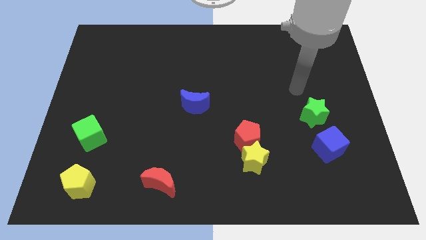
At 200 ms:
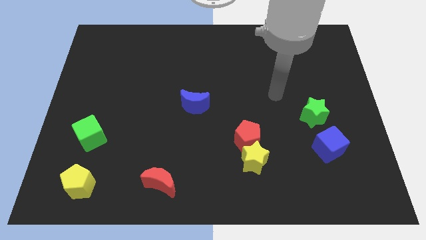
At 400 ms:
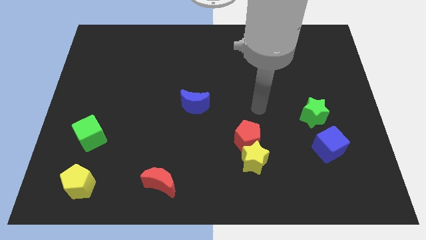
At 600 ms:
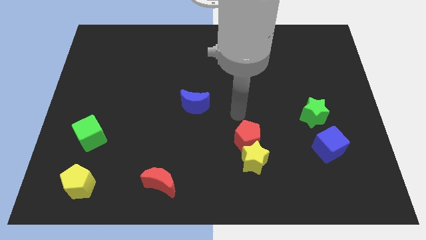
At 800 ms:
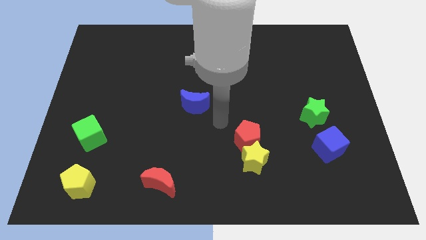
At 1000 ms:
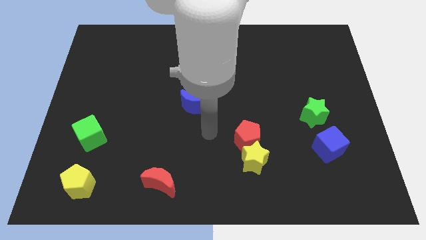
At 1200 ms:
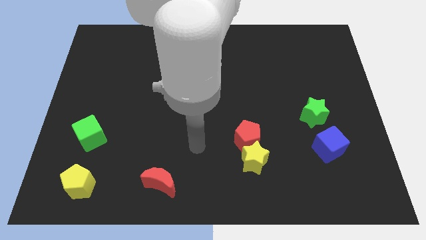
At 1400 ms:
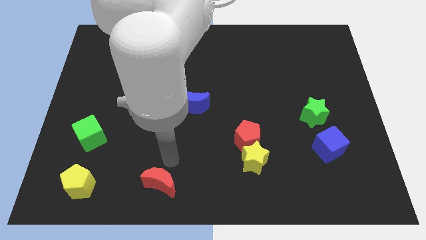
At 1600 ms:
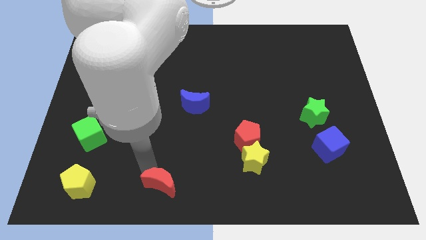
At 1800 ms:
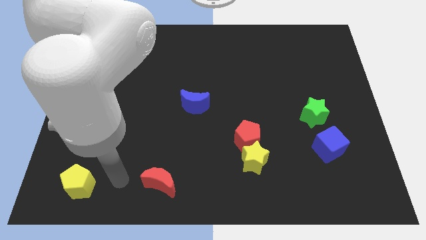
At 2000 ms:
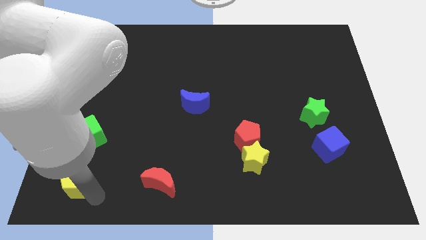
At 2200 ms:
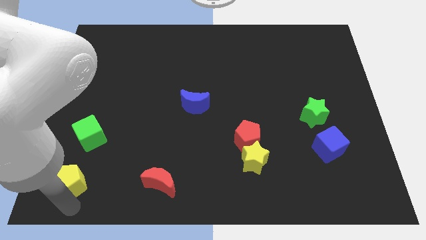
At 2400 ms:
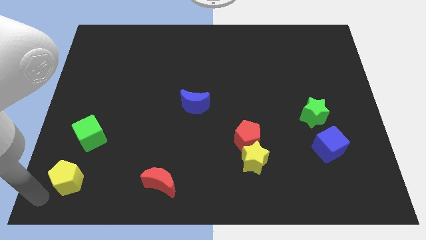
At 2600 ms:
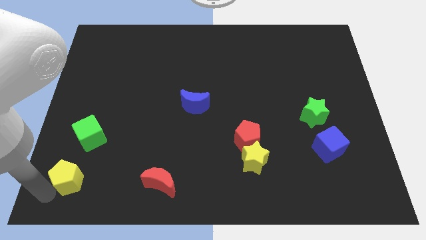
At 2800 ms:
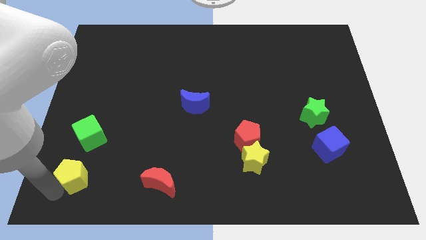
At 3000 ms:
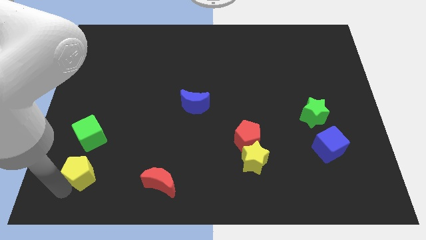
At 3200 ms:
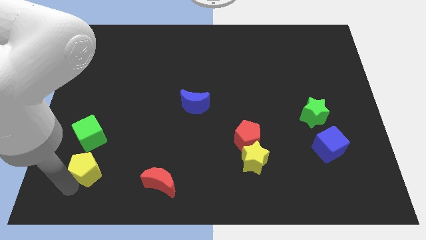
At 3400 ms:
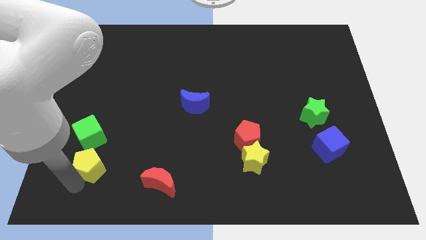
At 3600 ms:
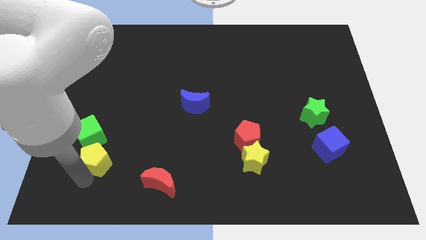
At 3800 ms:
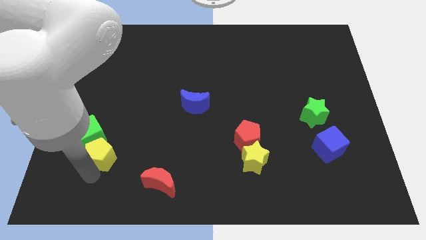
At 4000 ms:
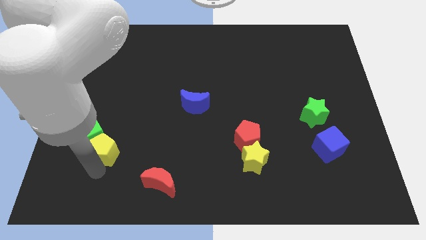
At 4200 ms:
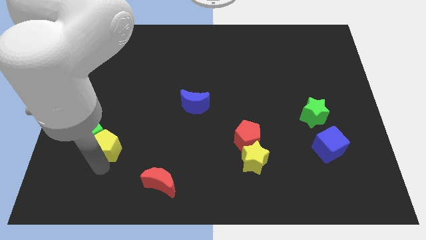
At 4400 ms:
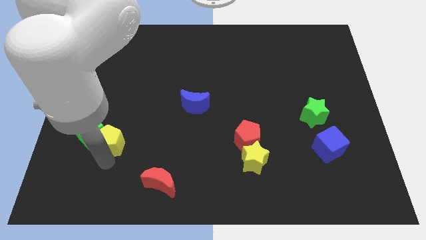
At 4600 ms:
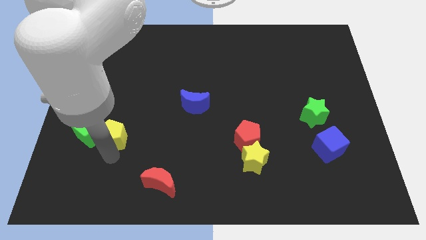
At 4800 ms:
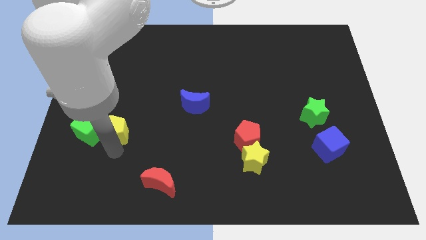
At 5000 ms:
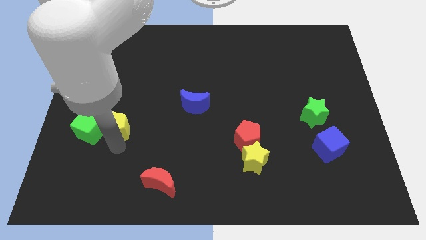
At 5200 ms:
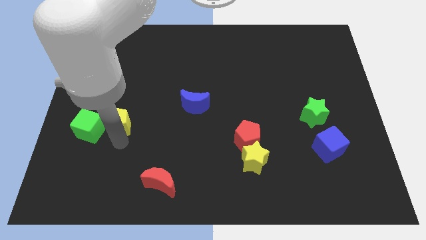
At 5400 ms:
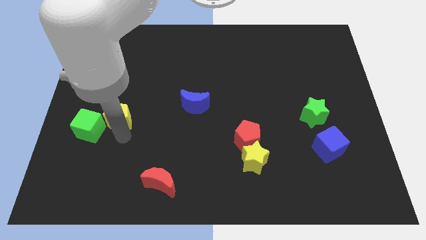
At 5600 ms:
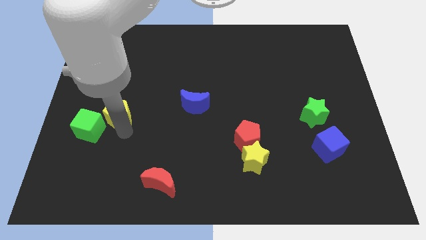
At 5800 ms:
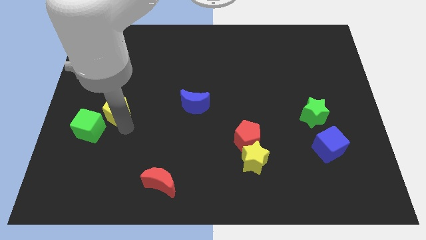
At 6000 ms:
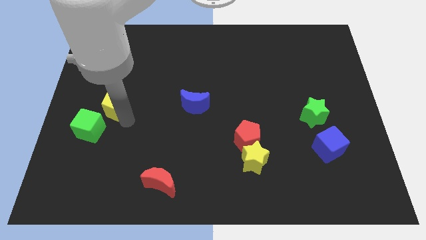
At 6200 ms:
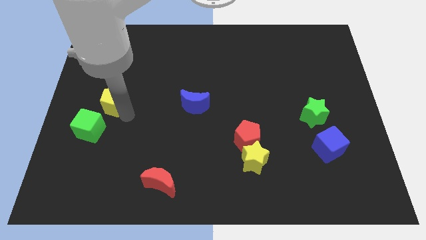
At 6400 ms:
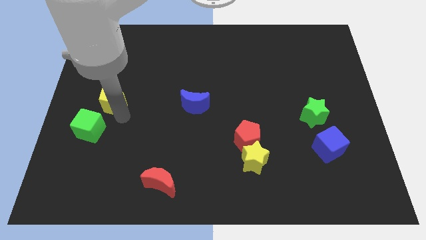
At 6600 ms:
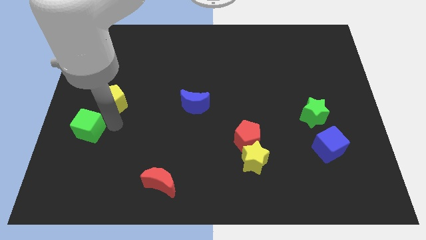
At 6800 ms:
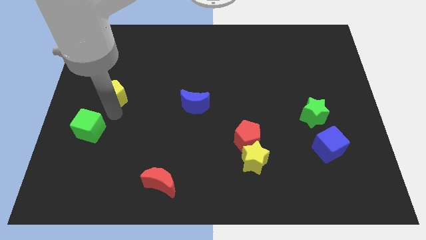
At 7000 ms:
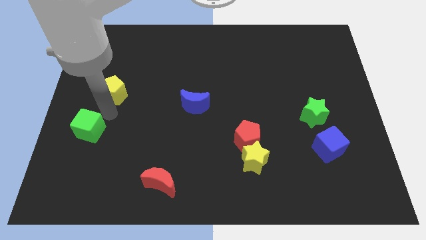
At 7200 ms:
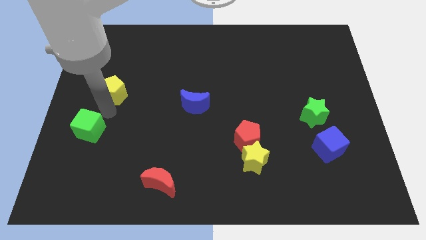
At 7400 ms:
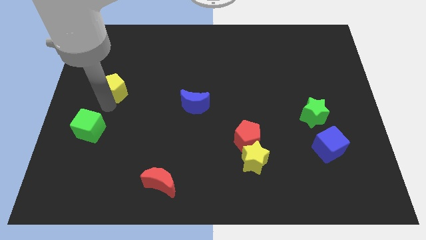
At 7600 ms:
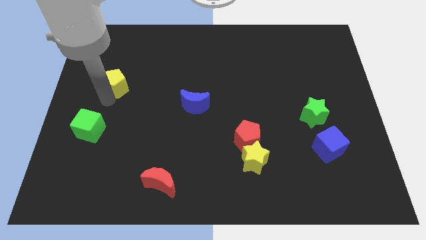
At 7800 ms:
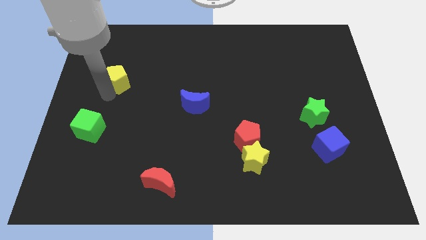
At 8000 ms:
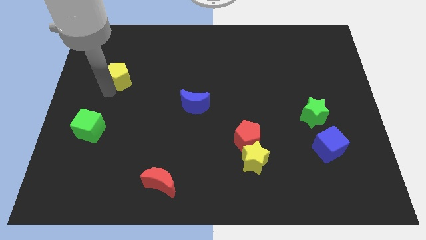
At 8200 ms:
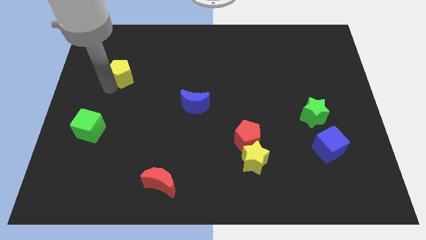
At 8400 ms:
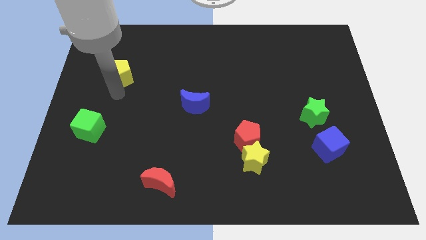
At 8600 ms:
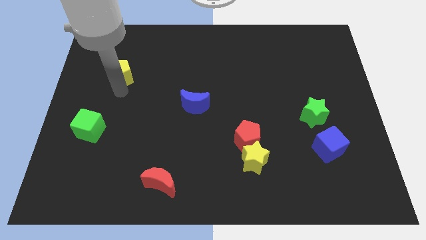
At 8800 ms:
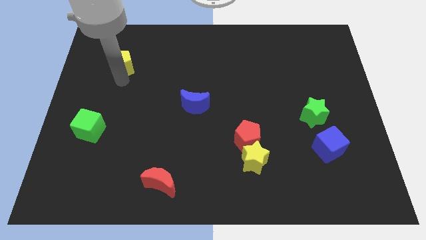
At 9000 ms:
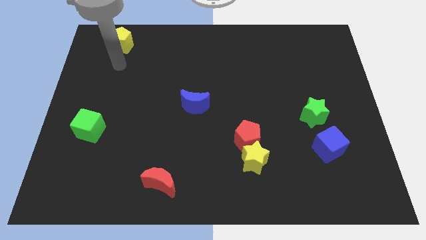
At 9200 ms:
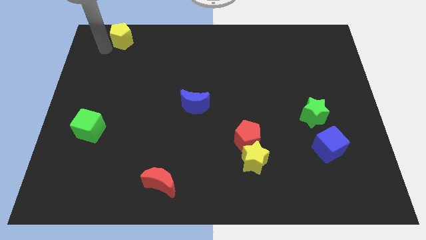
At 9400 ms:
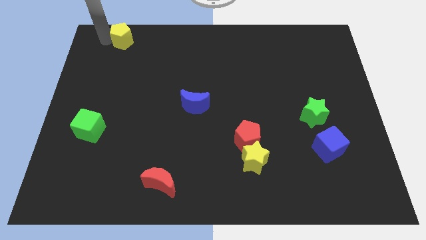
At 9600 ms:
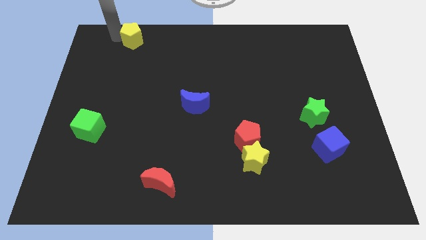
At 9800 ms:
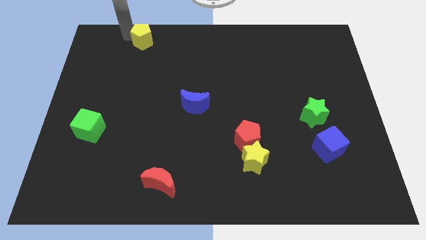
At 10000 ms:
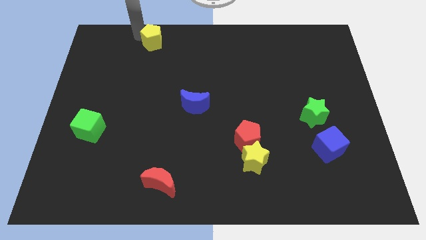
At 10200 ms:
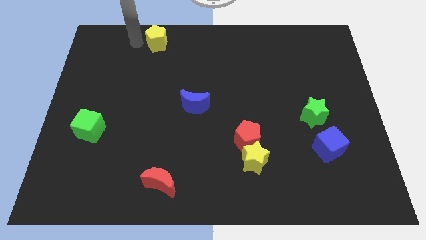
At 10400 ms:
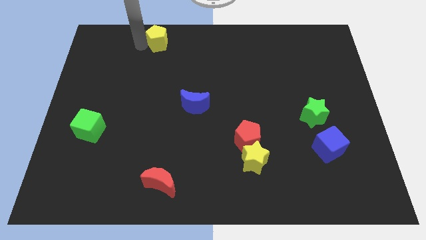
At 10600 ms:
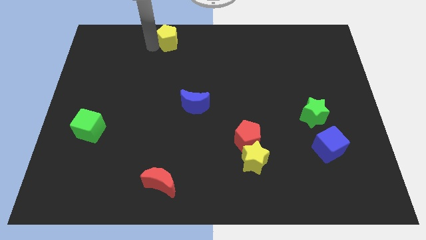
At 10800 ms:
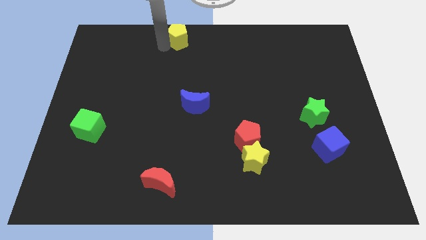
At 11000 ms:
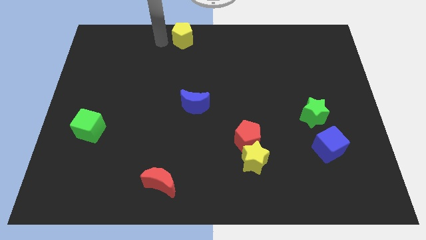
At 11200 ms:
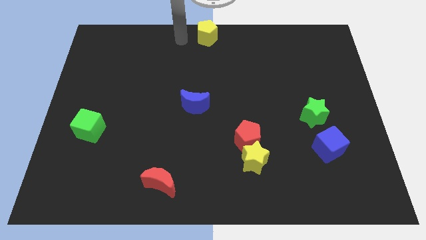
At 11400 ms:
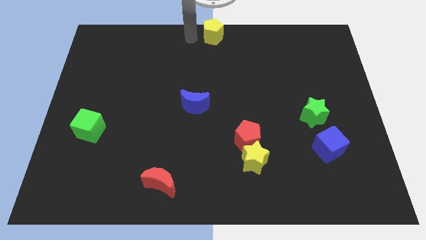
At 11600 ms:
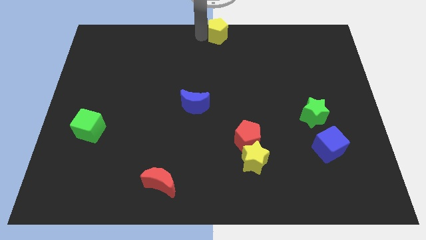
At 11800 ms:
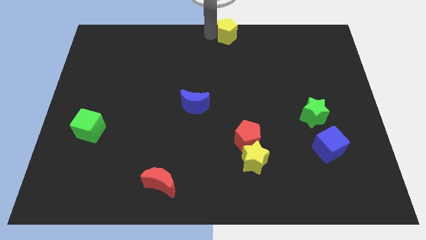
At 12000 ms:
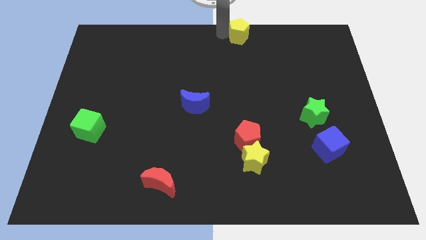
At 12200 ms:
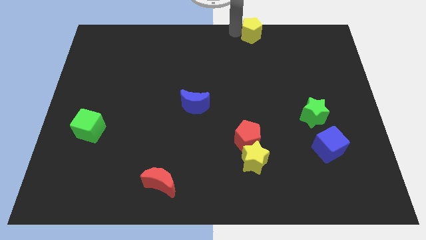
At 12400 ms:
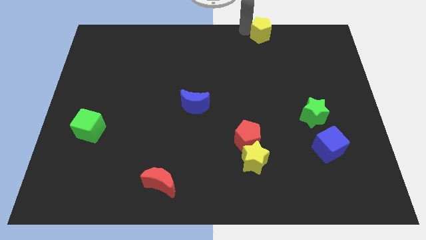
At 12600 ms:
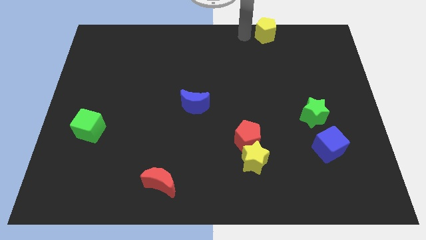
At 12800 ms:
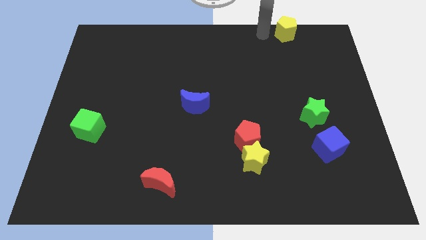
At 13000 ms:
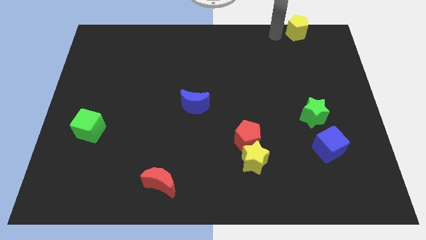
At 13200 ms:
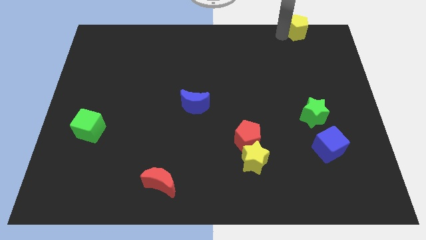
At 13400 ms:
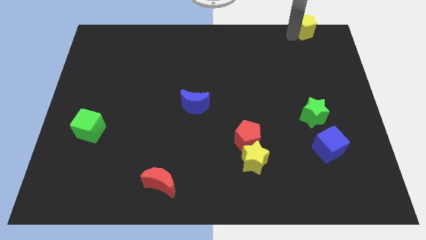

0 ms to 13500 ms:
move the yellow pentagon to the top right of the board
